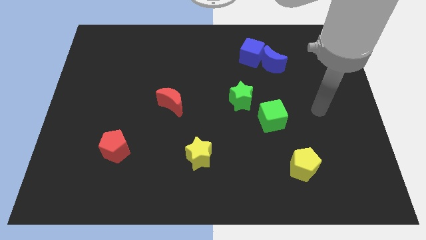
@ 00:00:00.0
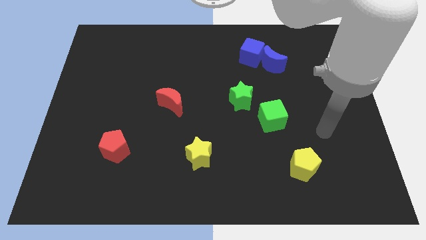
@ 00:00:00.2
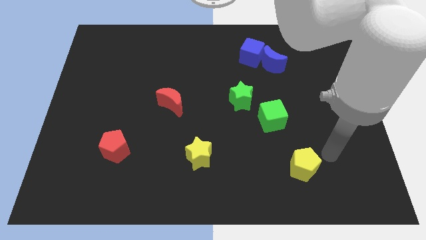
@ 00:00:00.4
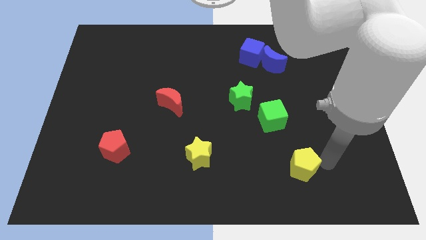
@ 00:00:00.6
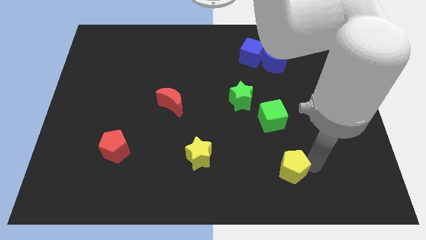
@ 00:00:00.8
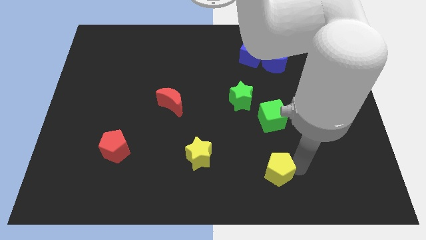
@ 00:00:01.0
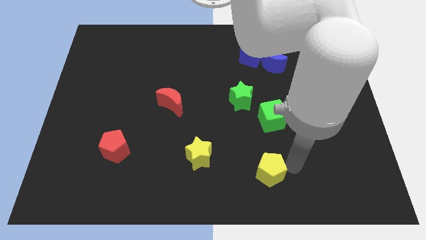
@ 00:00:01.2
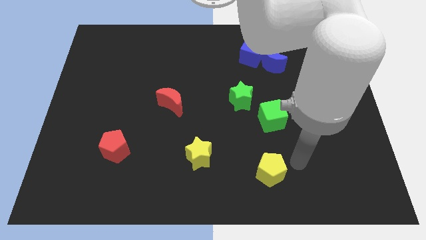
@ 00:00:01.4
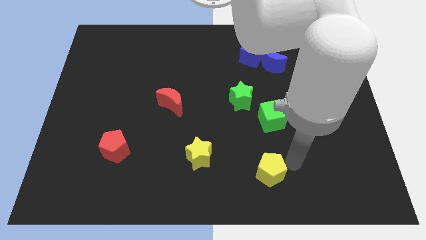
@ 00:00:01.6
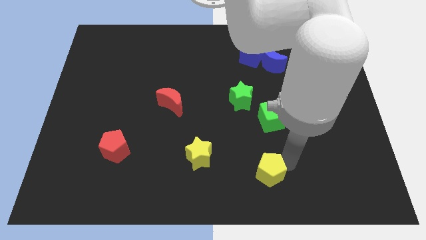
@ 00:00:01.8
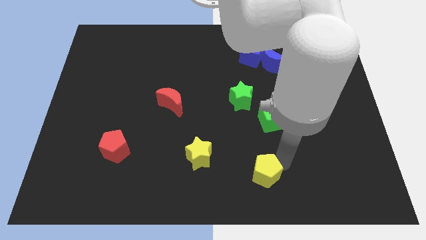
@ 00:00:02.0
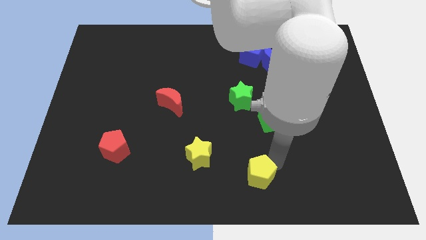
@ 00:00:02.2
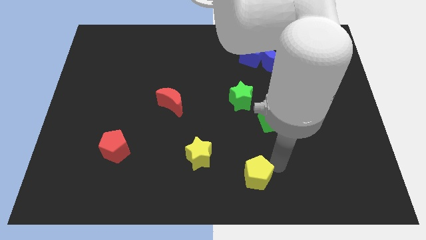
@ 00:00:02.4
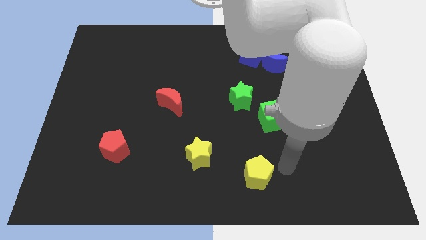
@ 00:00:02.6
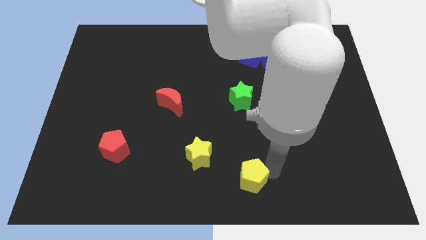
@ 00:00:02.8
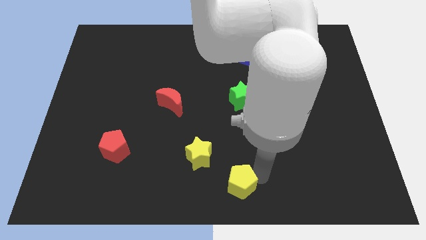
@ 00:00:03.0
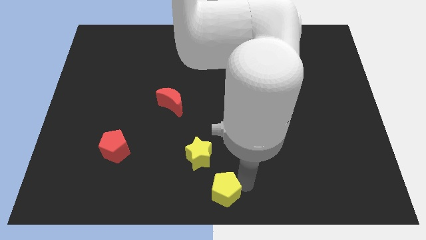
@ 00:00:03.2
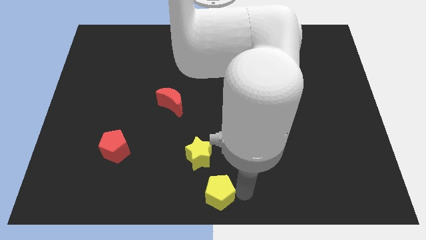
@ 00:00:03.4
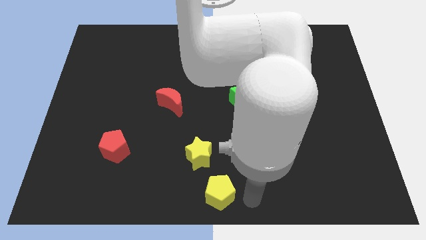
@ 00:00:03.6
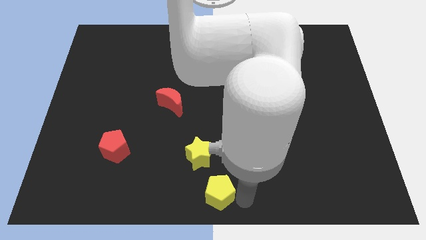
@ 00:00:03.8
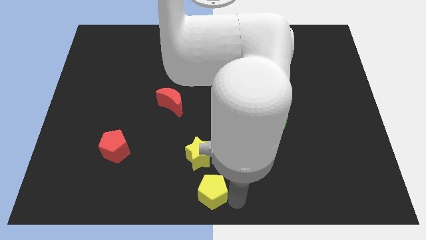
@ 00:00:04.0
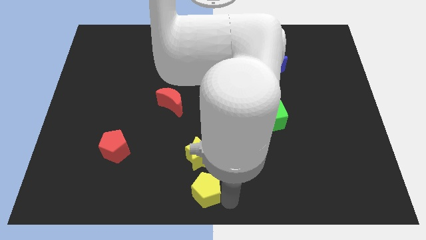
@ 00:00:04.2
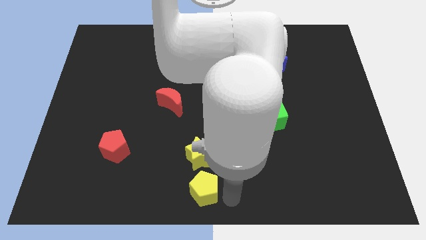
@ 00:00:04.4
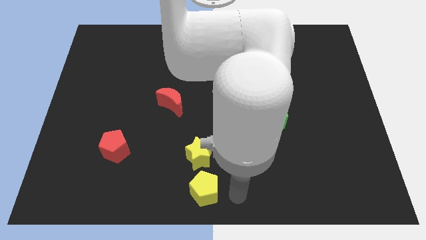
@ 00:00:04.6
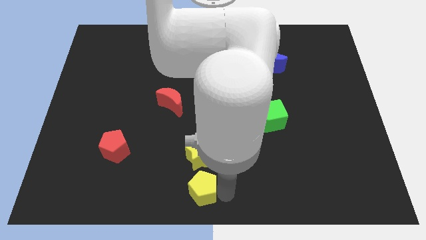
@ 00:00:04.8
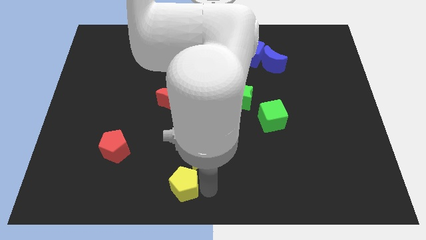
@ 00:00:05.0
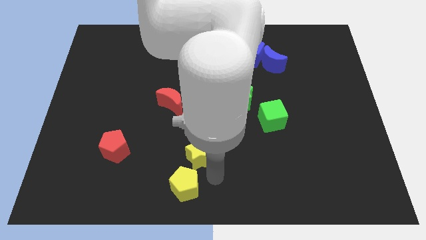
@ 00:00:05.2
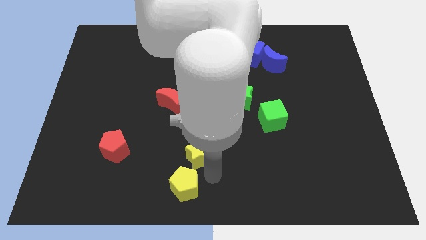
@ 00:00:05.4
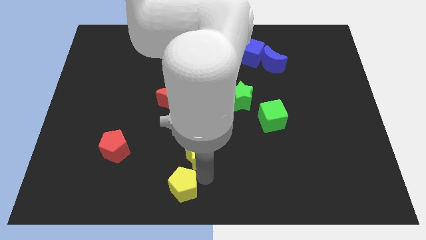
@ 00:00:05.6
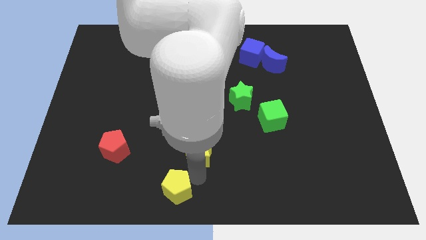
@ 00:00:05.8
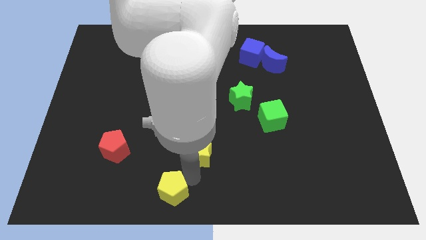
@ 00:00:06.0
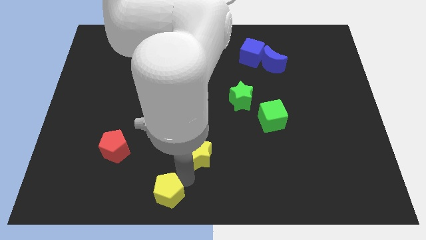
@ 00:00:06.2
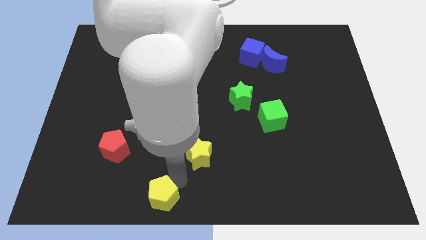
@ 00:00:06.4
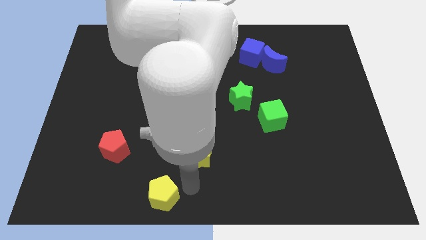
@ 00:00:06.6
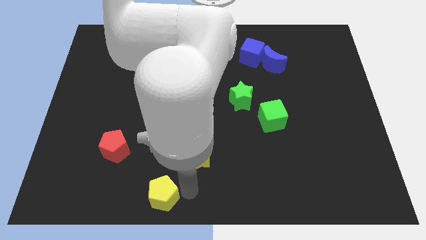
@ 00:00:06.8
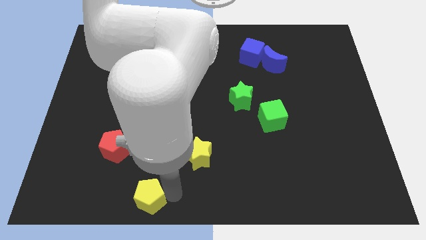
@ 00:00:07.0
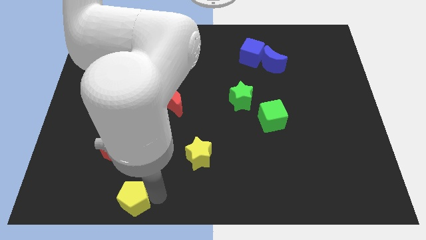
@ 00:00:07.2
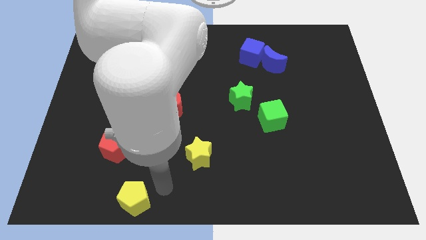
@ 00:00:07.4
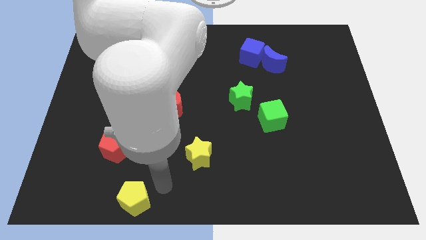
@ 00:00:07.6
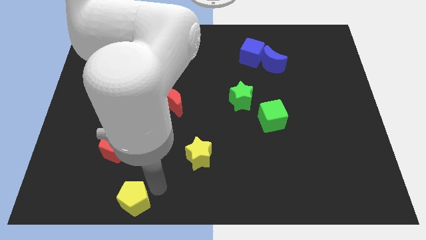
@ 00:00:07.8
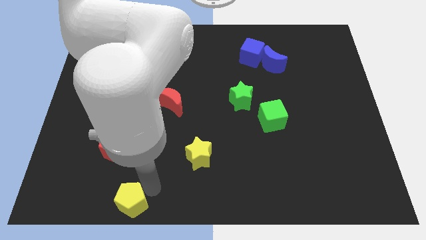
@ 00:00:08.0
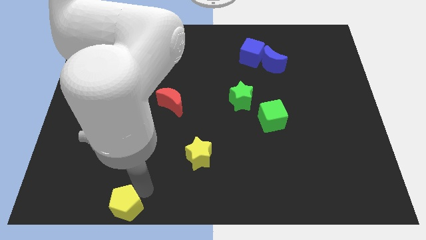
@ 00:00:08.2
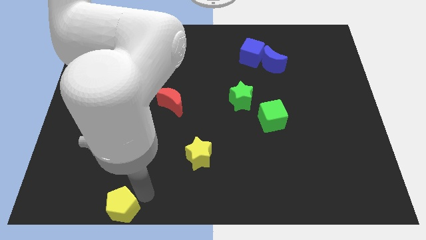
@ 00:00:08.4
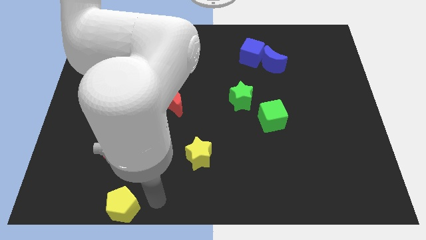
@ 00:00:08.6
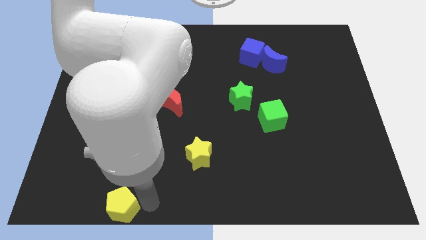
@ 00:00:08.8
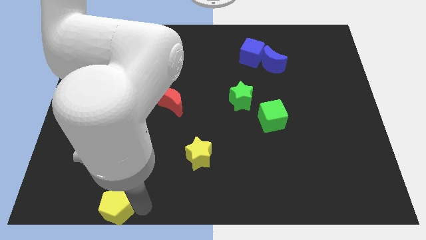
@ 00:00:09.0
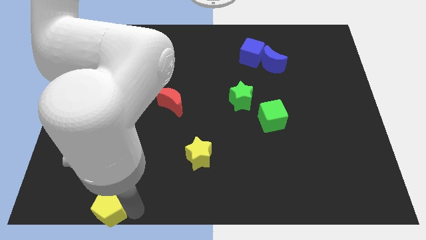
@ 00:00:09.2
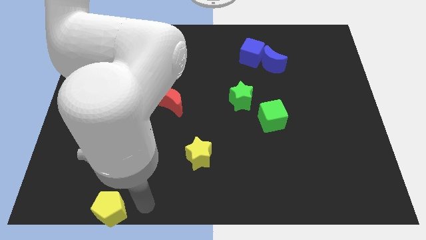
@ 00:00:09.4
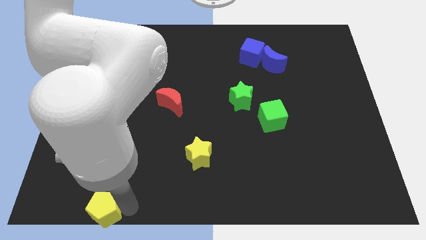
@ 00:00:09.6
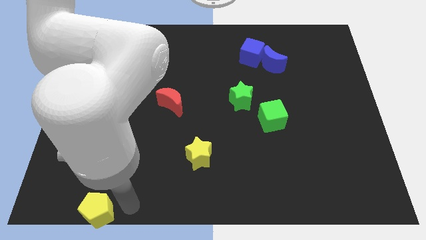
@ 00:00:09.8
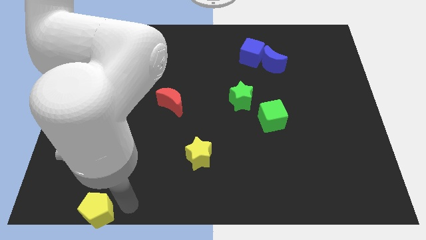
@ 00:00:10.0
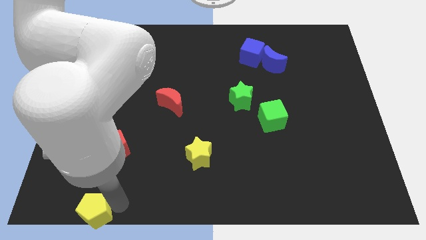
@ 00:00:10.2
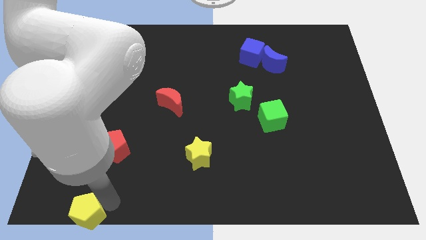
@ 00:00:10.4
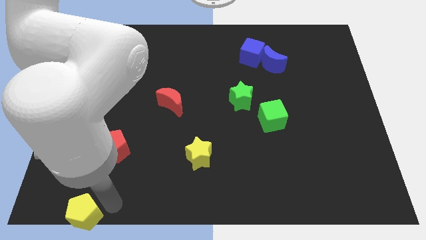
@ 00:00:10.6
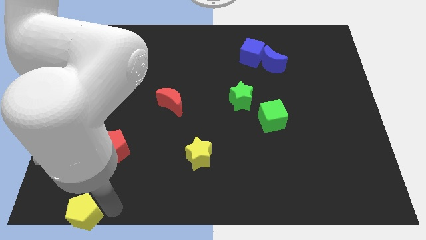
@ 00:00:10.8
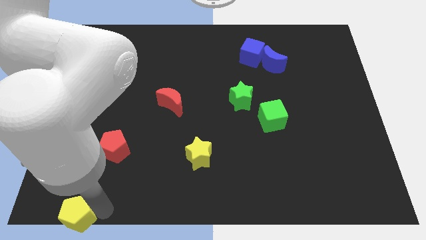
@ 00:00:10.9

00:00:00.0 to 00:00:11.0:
move the yellow pentagon to the lower left corner

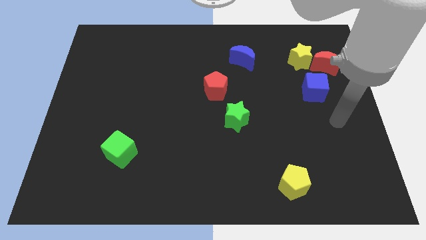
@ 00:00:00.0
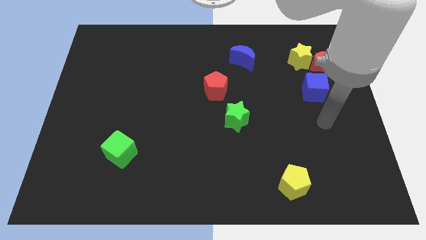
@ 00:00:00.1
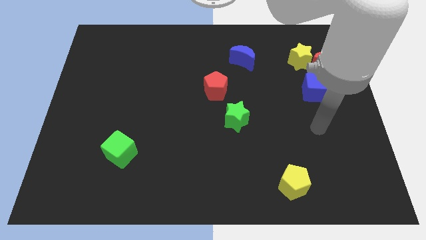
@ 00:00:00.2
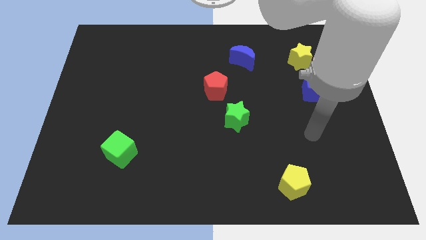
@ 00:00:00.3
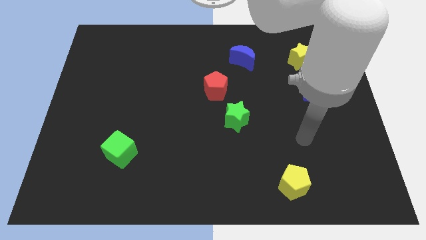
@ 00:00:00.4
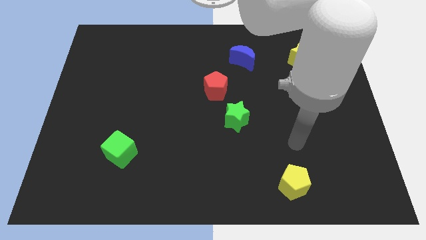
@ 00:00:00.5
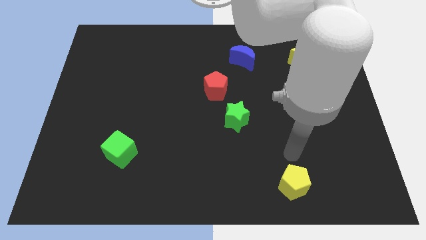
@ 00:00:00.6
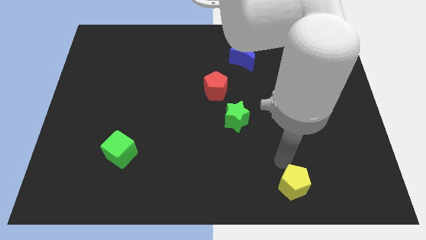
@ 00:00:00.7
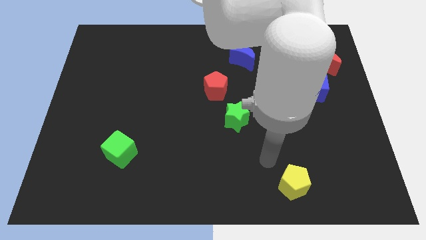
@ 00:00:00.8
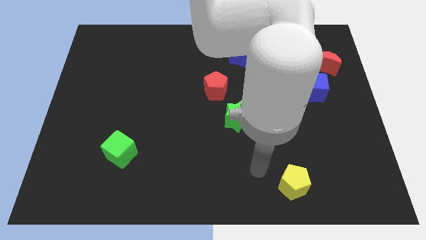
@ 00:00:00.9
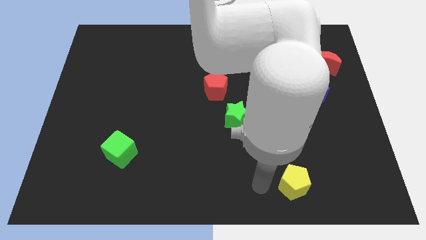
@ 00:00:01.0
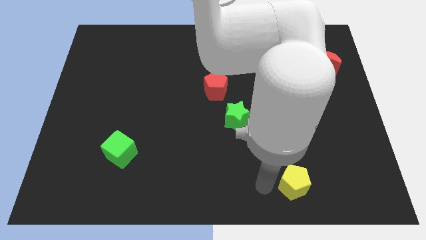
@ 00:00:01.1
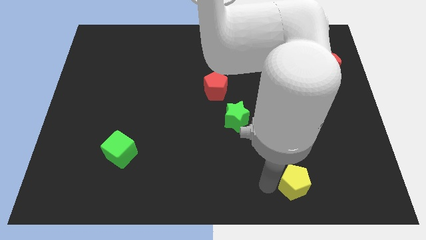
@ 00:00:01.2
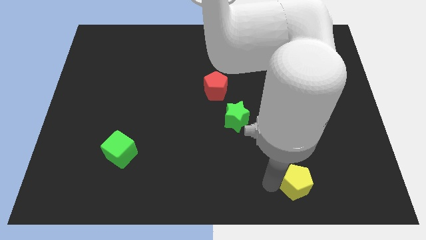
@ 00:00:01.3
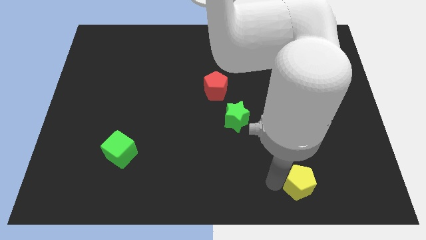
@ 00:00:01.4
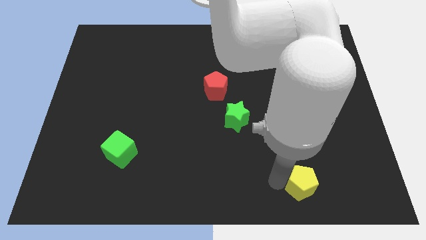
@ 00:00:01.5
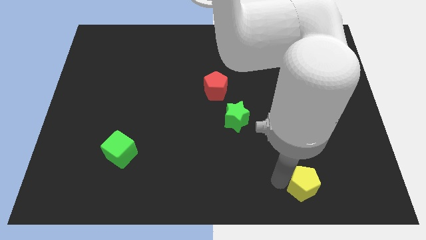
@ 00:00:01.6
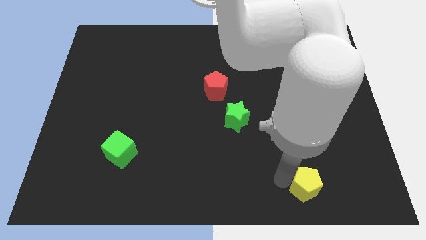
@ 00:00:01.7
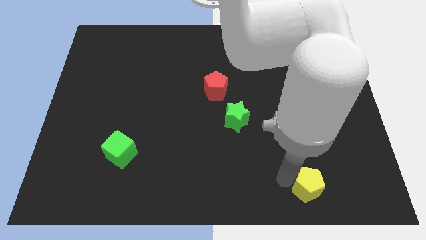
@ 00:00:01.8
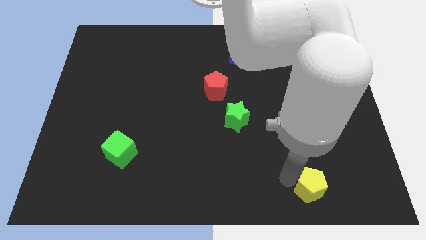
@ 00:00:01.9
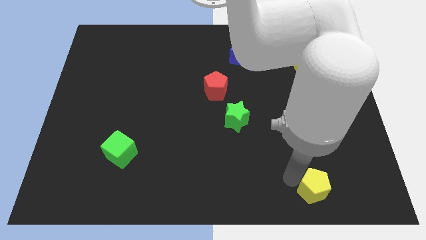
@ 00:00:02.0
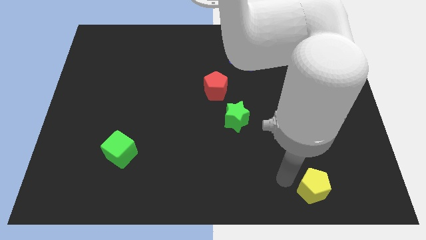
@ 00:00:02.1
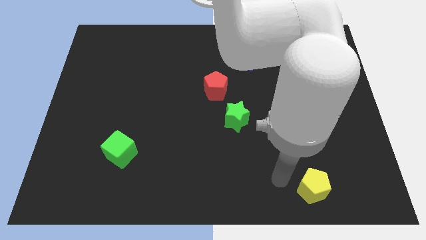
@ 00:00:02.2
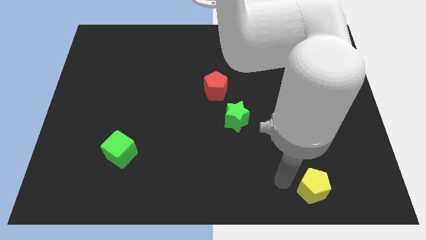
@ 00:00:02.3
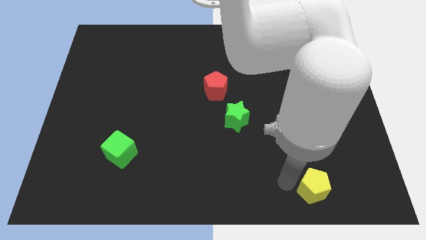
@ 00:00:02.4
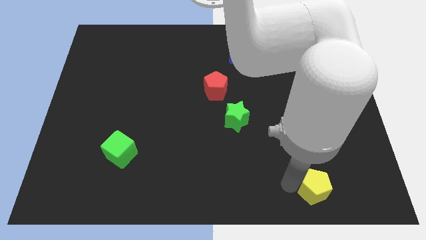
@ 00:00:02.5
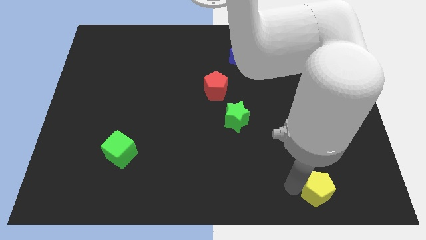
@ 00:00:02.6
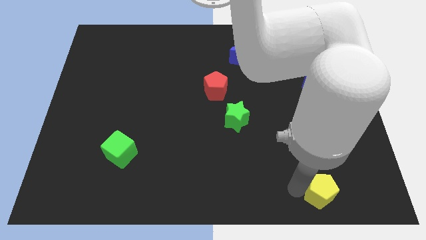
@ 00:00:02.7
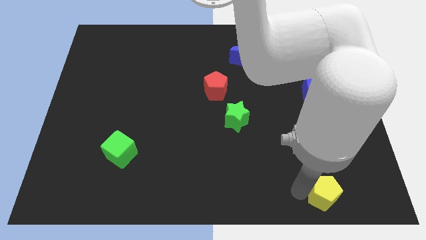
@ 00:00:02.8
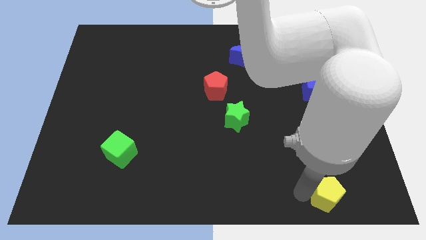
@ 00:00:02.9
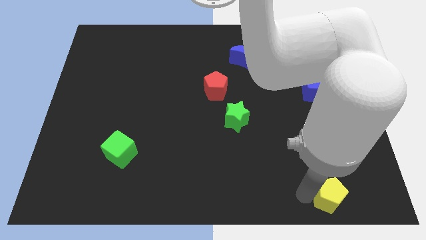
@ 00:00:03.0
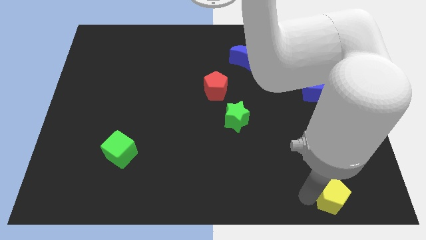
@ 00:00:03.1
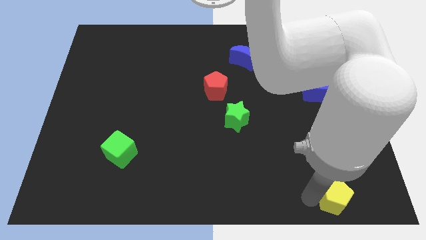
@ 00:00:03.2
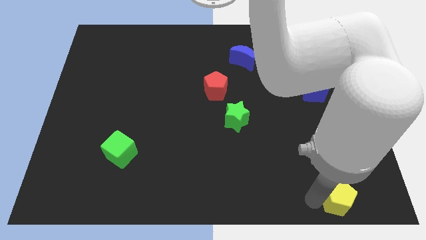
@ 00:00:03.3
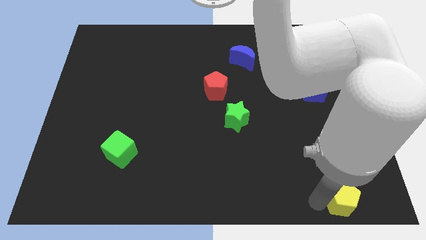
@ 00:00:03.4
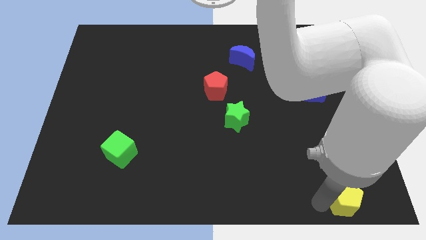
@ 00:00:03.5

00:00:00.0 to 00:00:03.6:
put the yellow pentagon to the bottom right of the board
